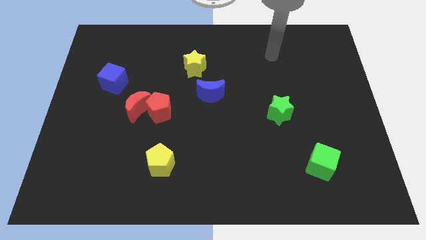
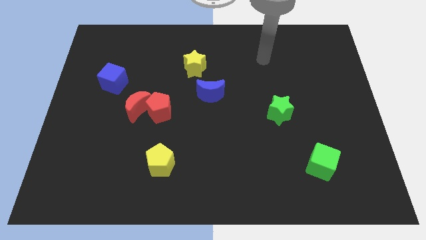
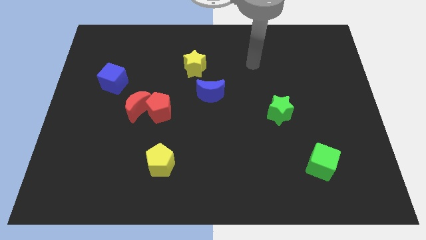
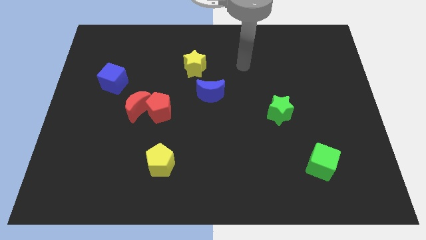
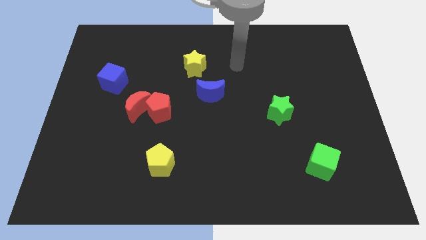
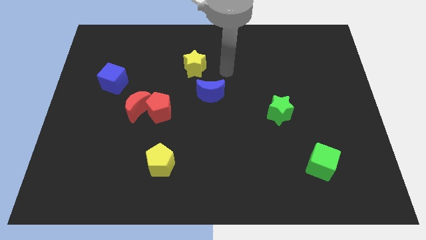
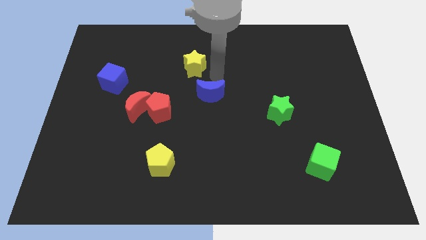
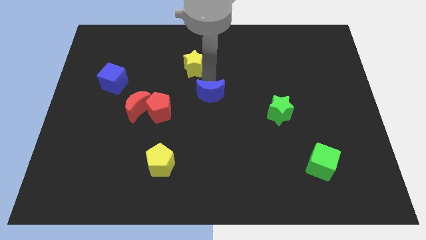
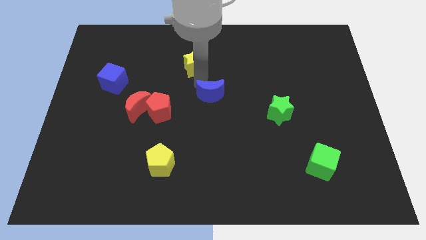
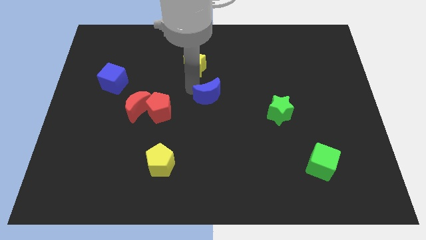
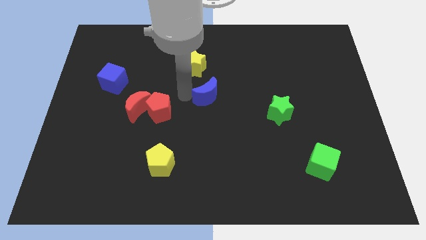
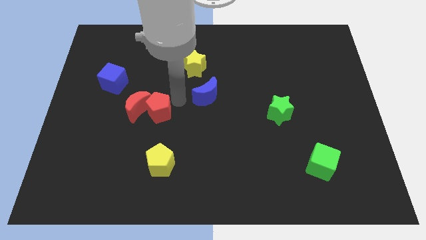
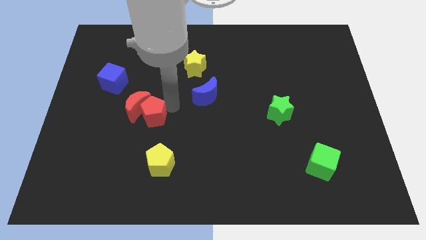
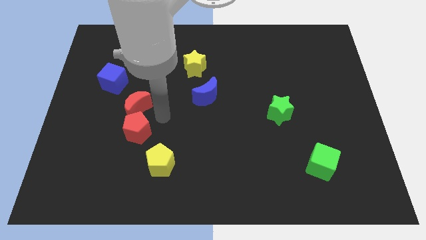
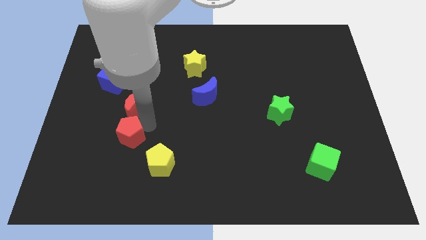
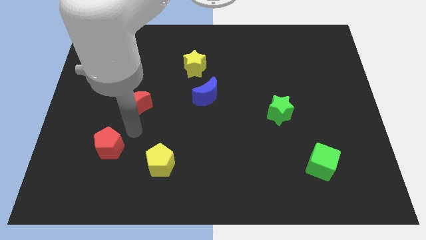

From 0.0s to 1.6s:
pull the red moon apart from the red pentagon

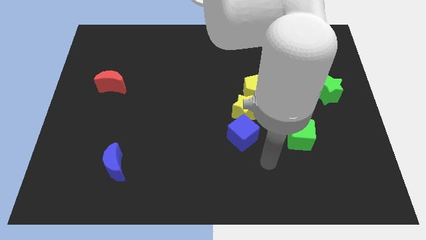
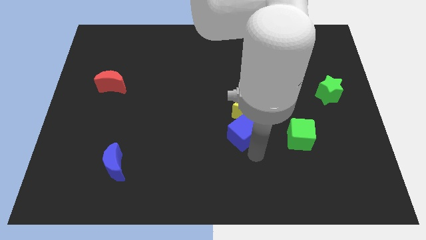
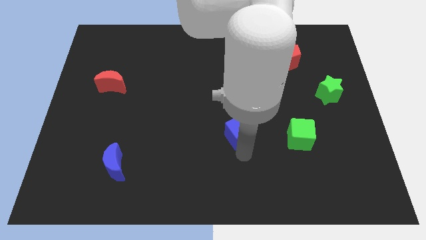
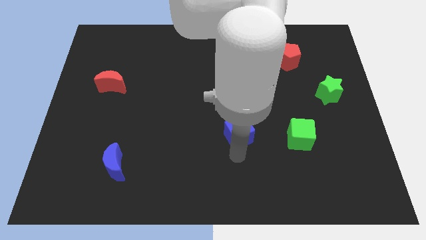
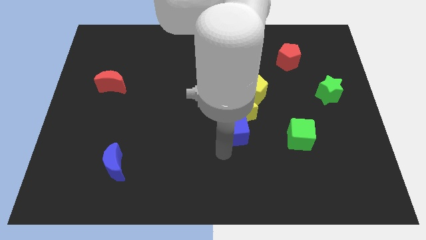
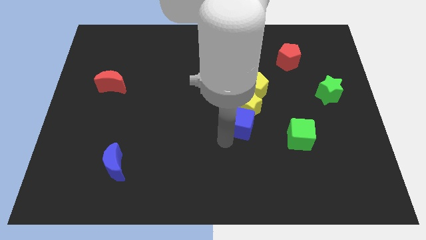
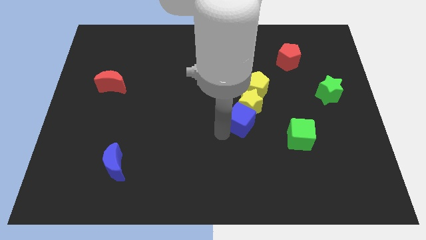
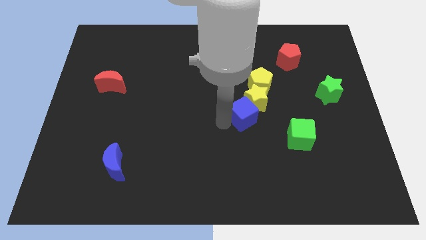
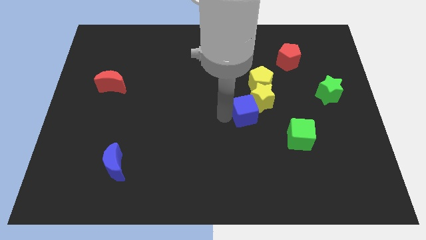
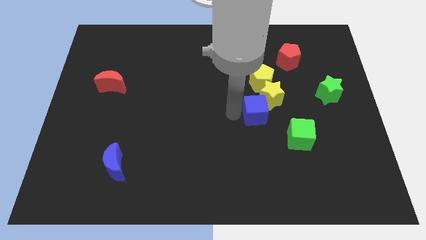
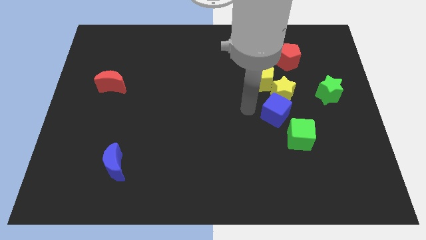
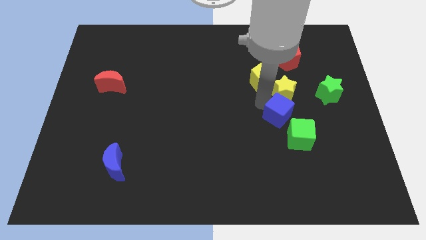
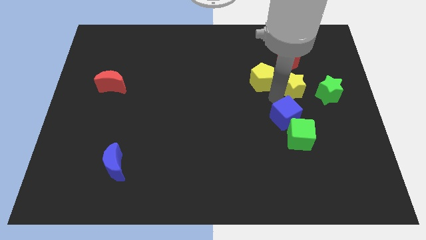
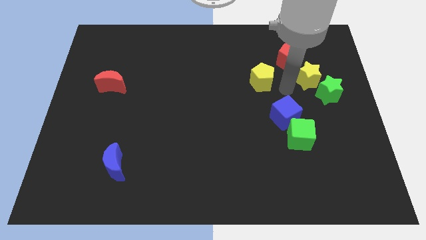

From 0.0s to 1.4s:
separate the yellow pentagon from the yellow star

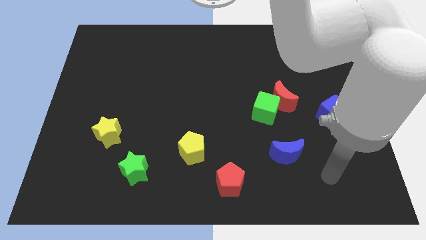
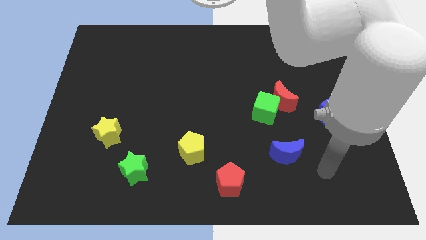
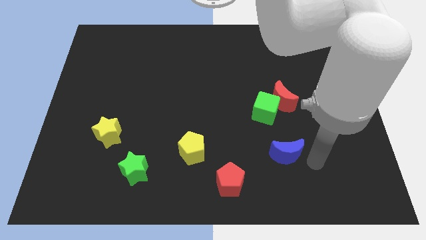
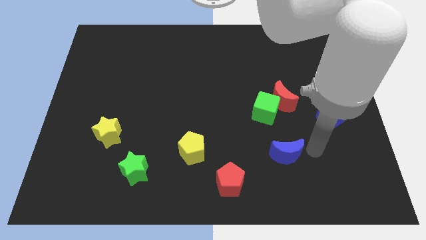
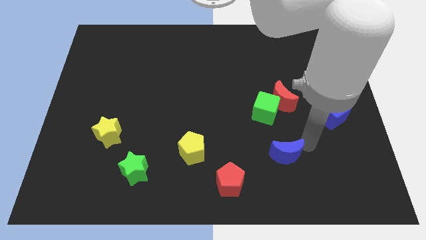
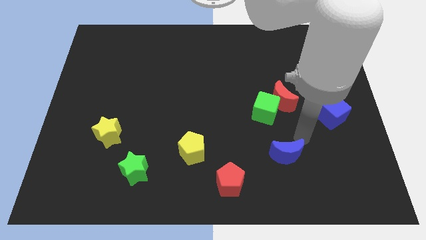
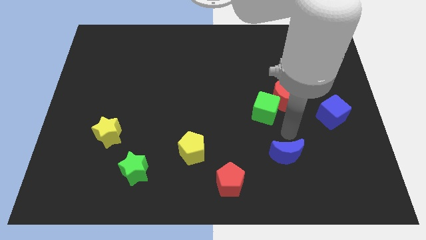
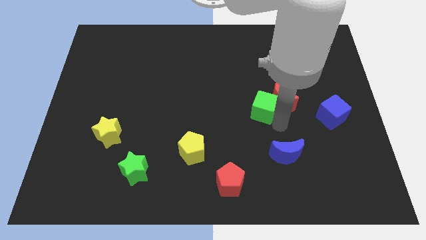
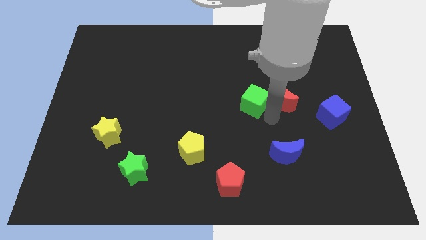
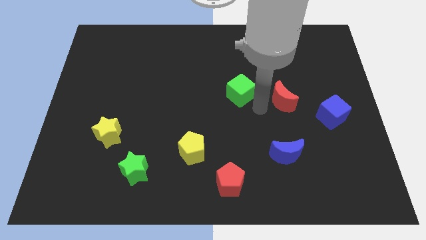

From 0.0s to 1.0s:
move the red moon away from the green cube

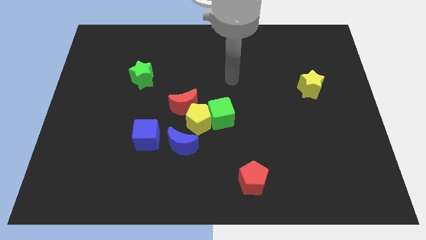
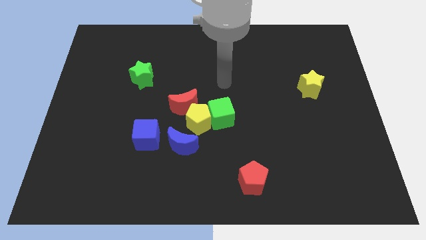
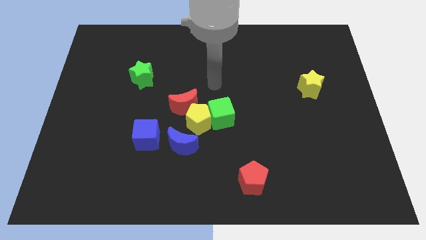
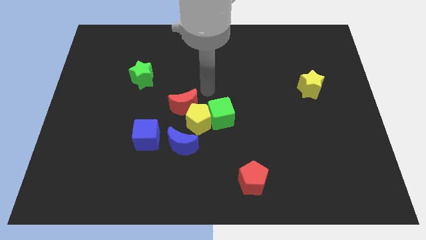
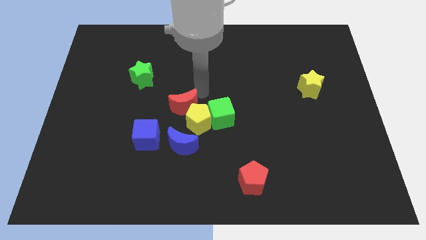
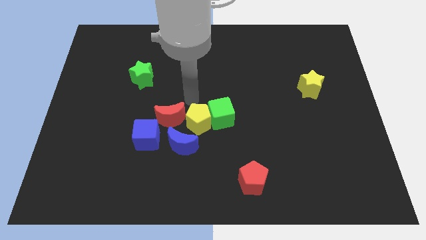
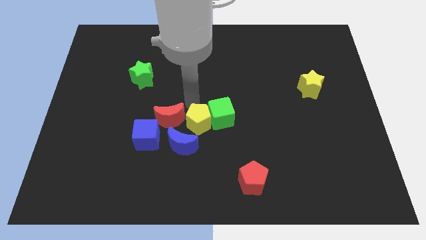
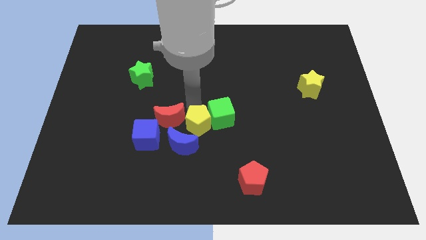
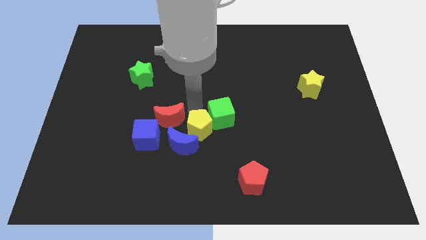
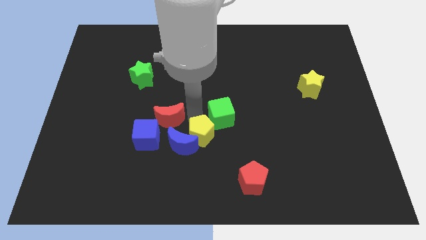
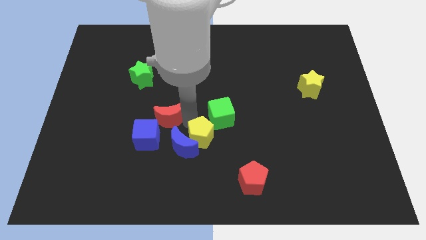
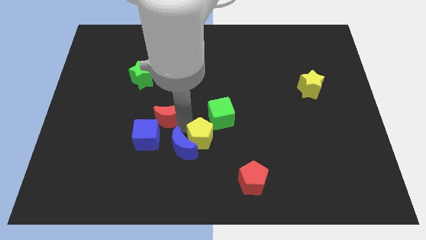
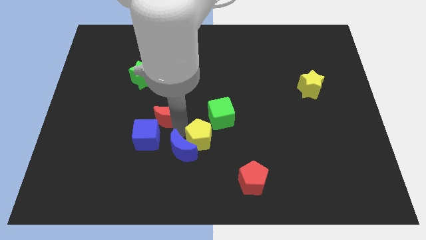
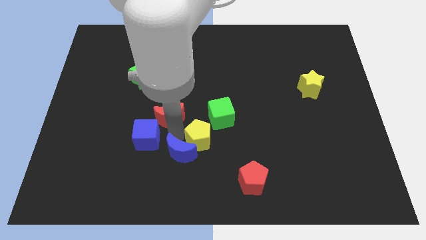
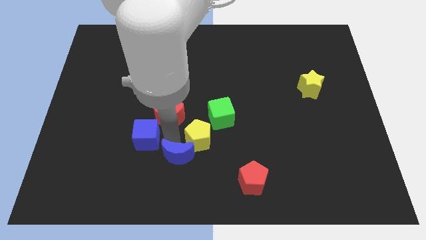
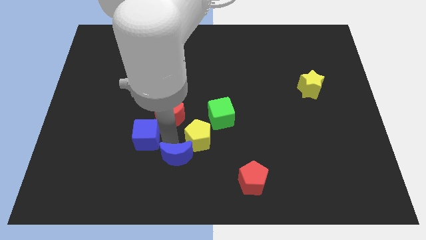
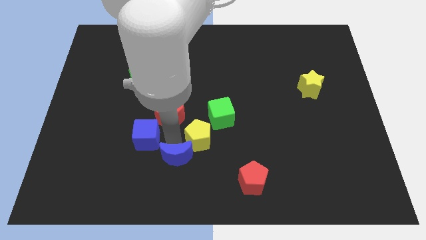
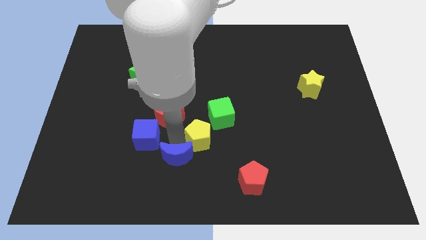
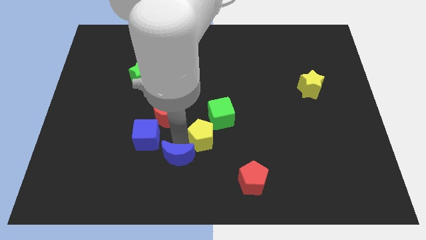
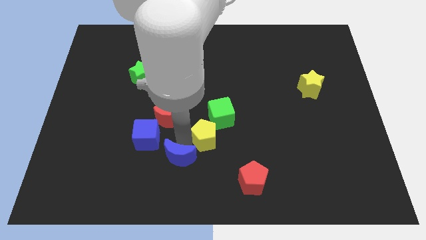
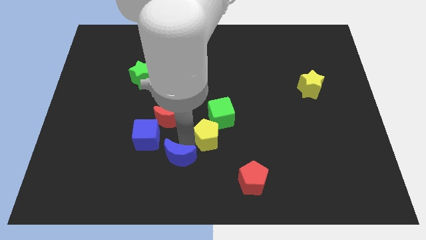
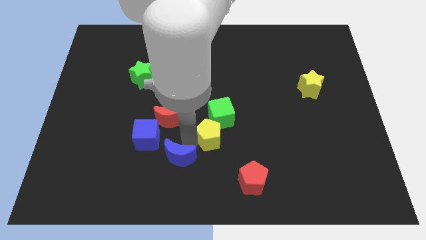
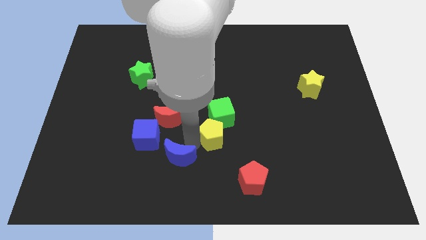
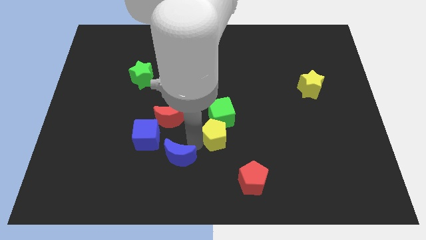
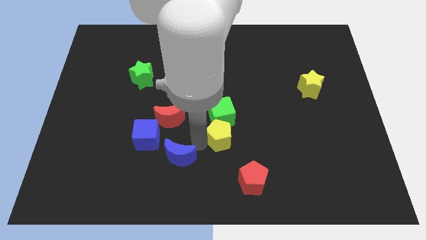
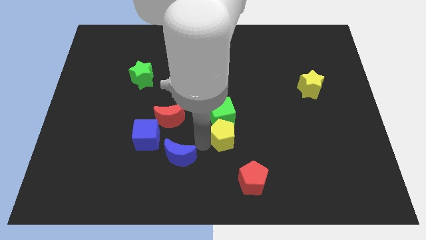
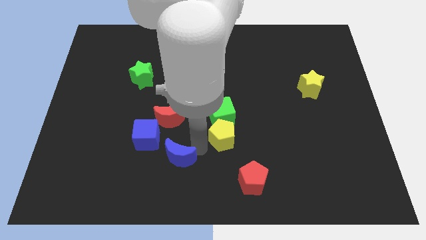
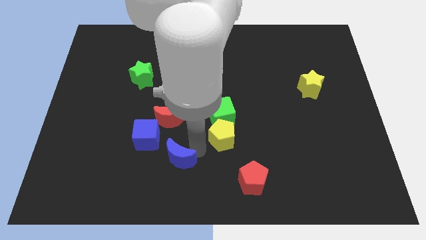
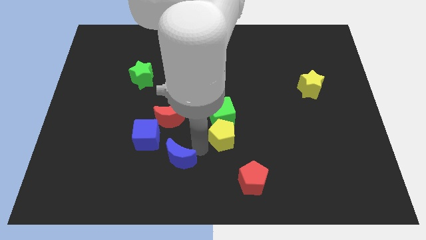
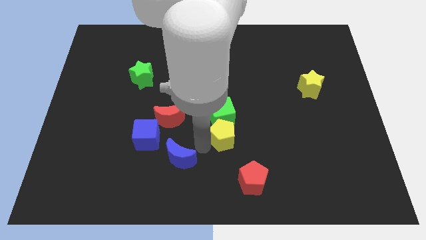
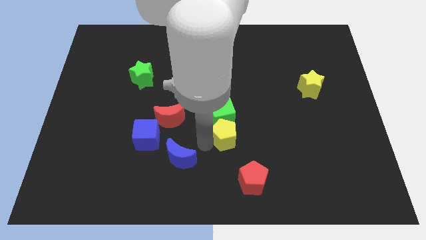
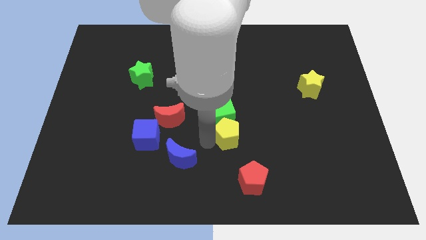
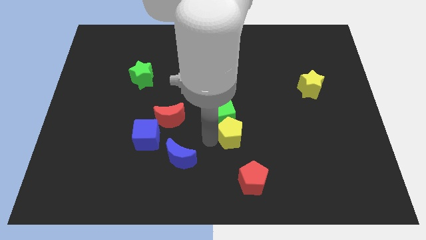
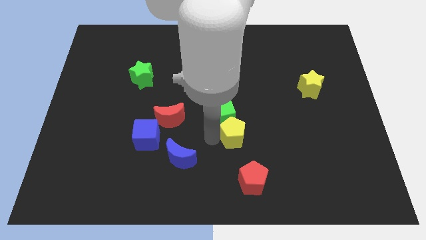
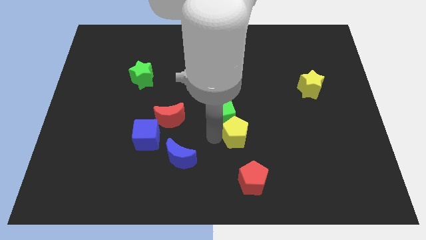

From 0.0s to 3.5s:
move the yellow pentagon away from the green cube, red moon, and blue moon

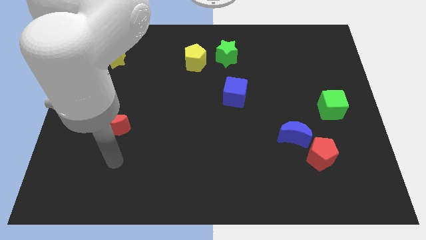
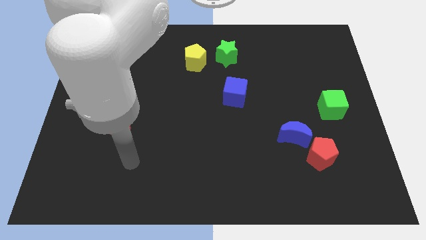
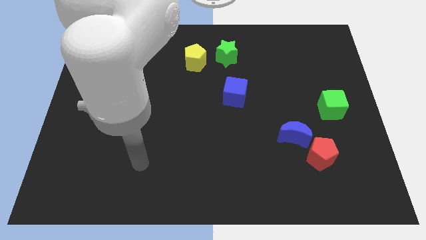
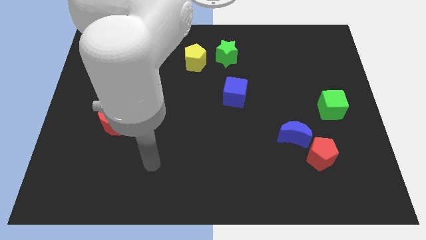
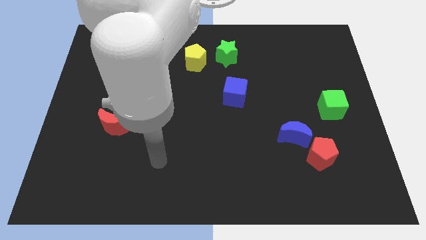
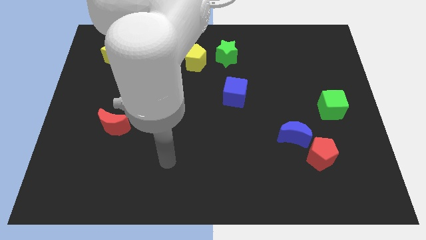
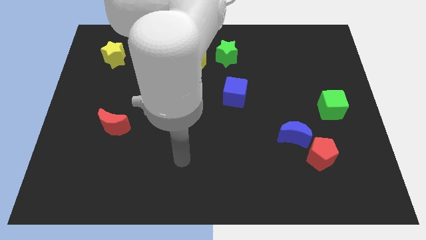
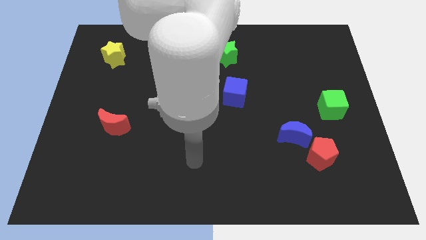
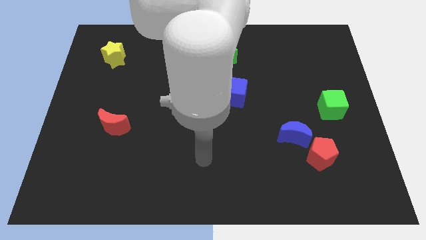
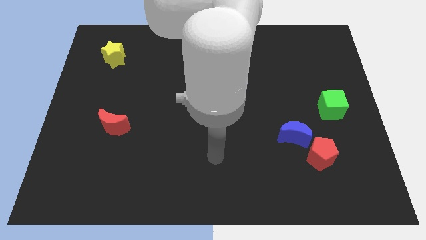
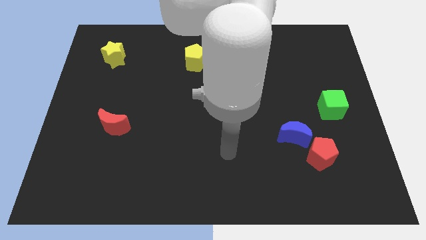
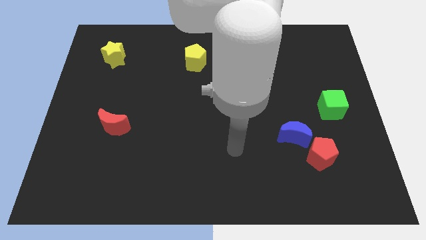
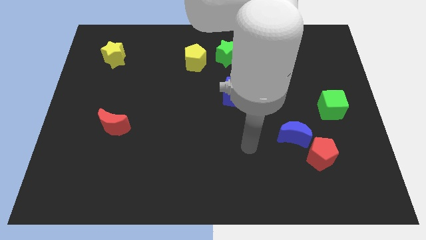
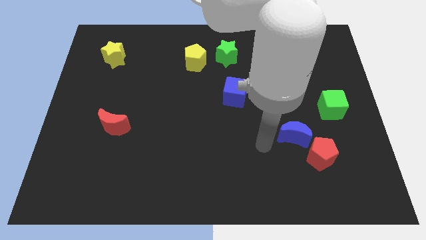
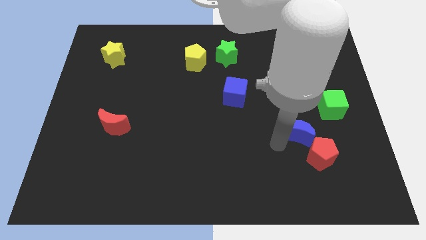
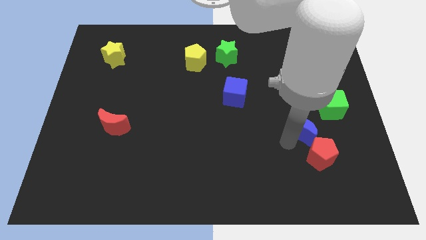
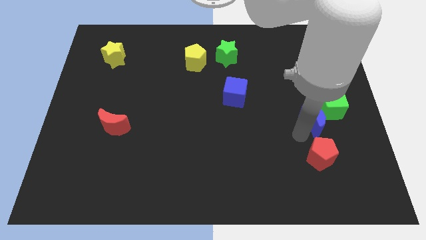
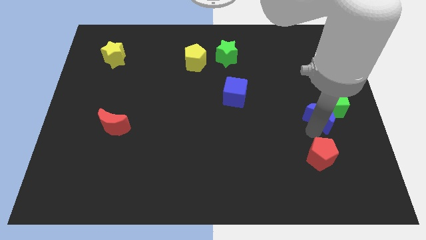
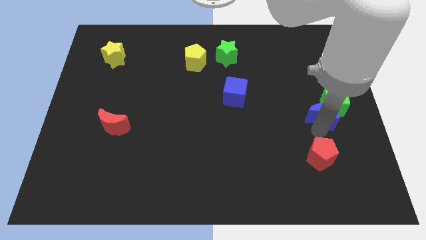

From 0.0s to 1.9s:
pull the red pentagon apart from the blue moon
